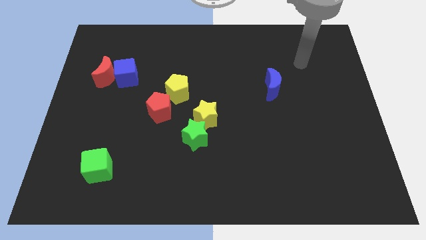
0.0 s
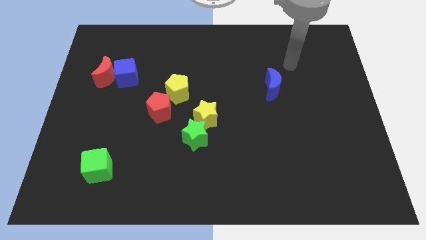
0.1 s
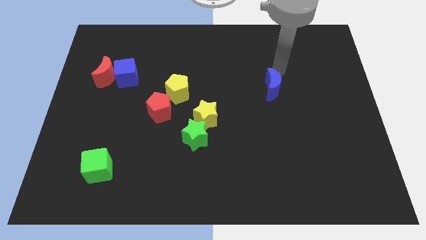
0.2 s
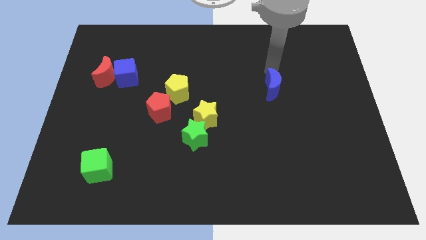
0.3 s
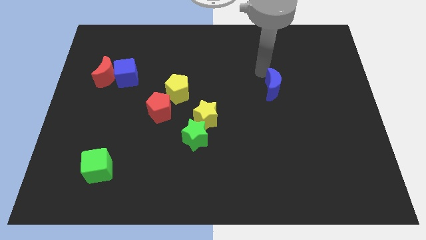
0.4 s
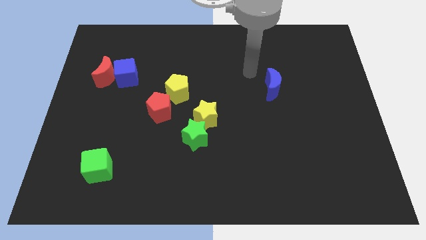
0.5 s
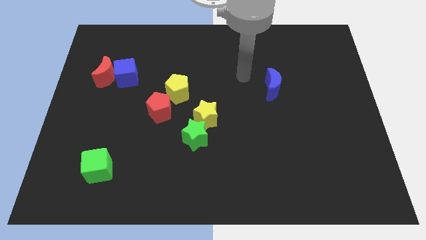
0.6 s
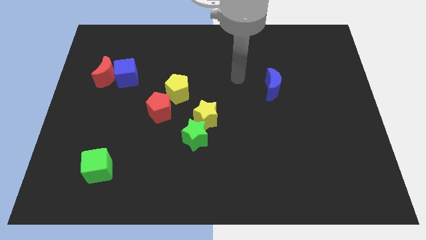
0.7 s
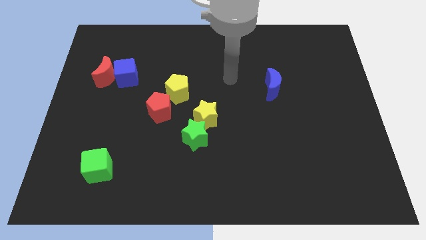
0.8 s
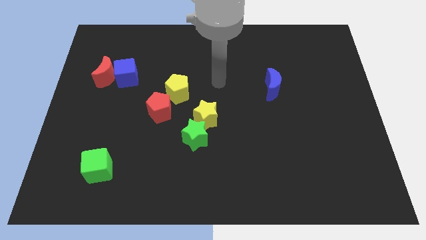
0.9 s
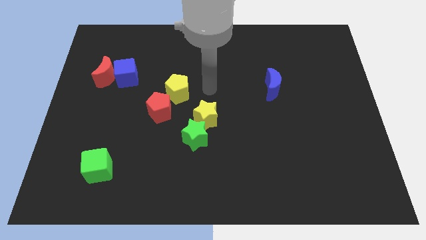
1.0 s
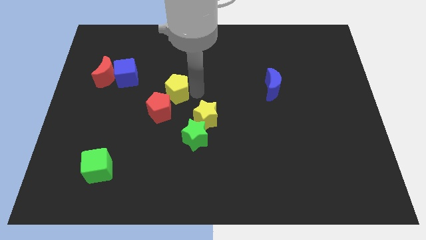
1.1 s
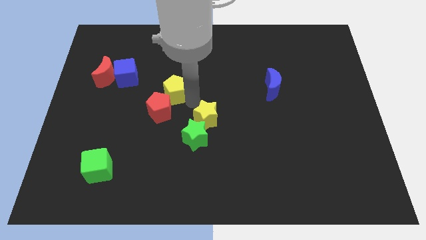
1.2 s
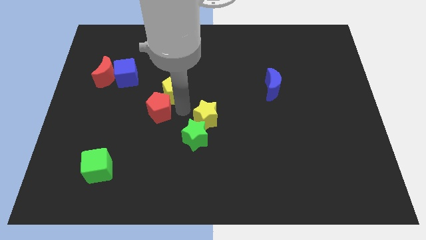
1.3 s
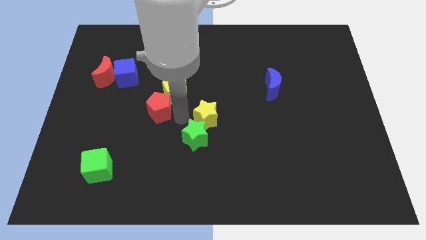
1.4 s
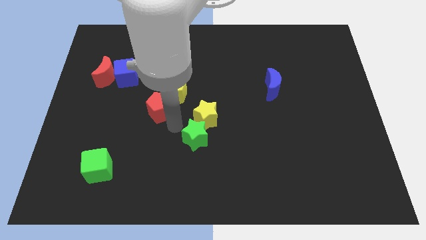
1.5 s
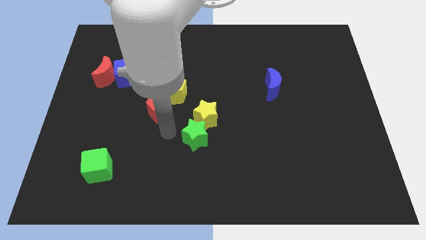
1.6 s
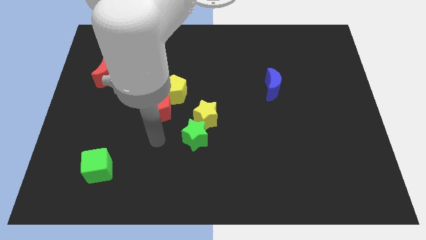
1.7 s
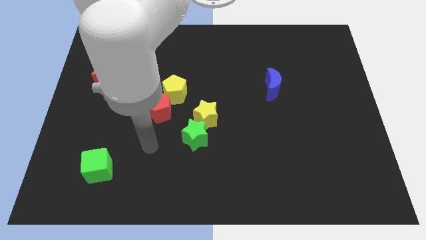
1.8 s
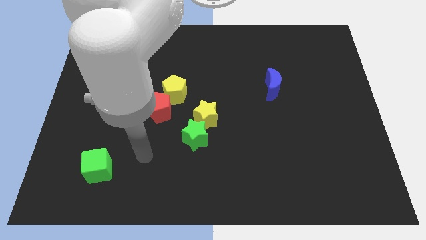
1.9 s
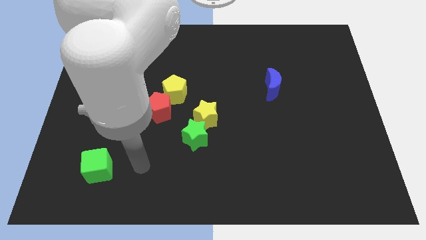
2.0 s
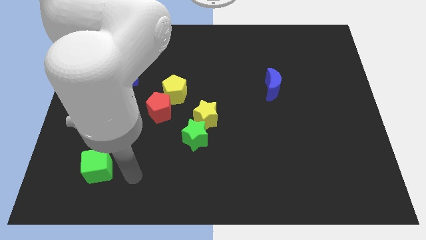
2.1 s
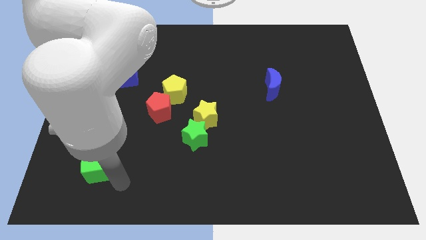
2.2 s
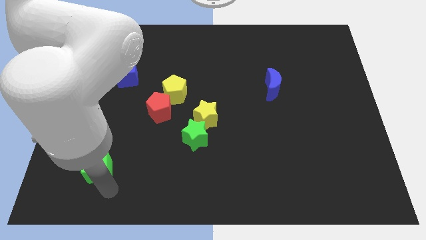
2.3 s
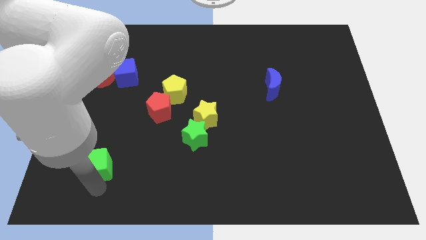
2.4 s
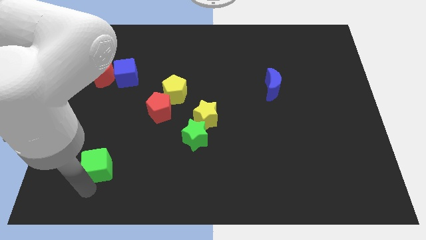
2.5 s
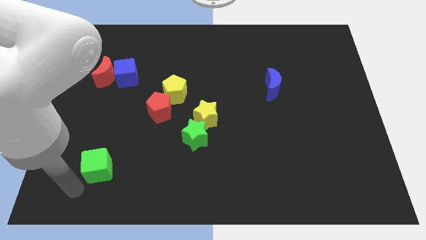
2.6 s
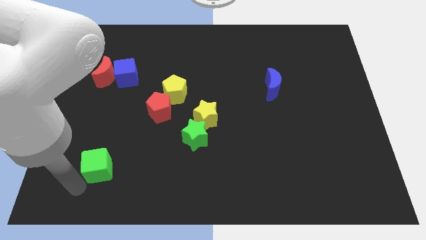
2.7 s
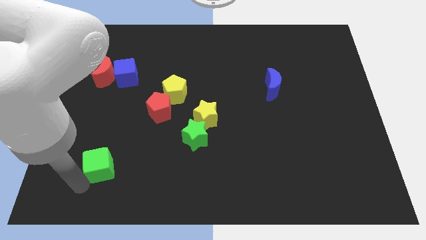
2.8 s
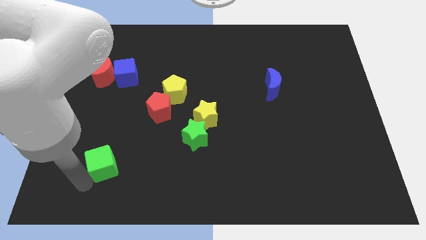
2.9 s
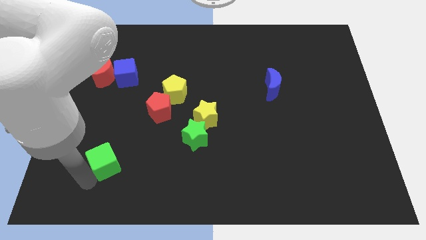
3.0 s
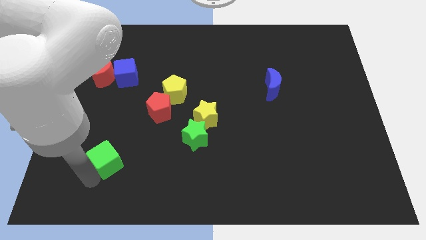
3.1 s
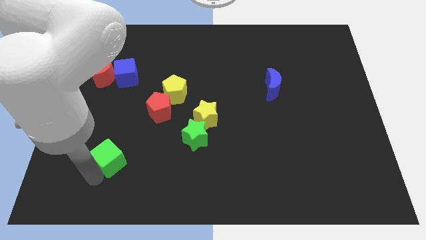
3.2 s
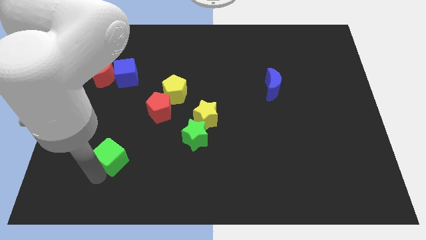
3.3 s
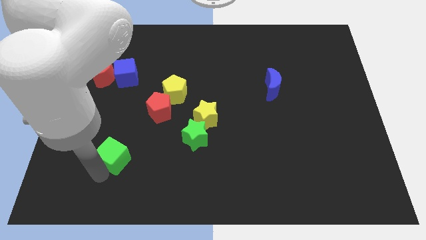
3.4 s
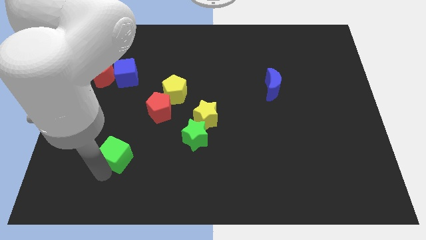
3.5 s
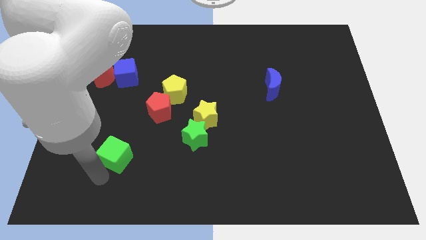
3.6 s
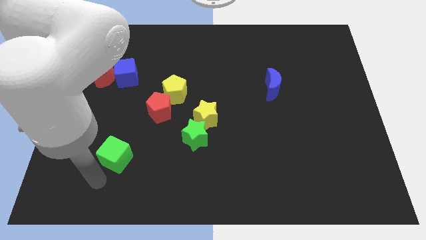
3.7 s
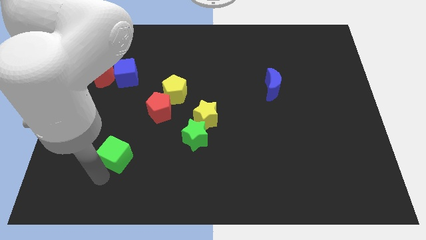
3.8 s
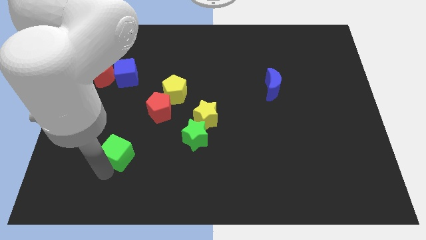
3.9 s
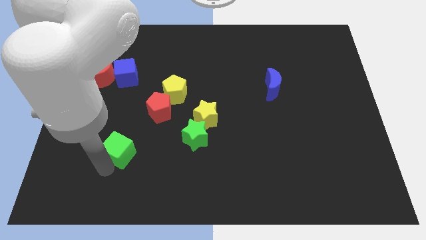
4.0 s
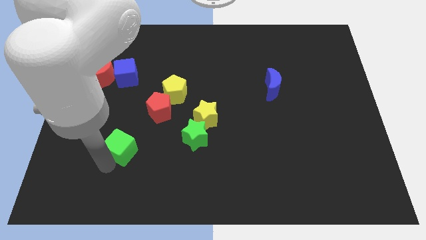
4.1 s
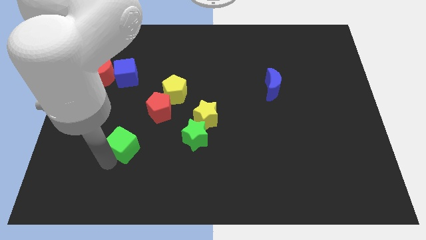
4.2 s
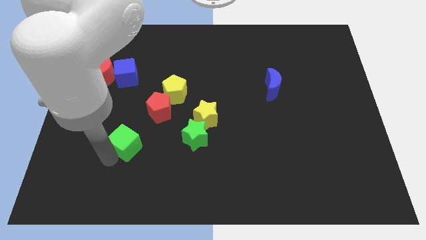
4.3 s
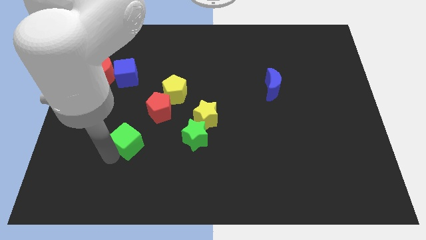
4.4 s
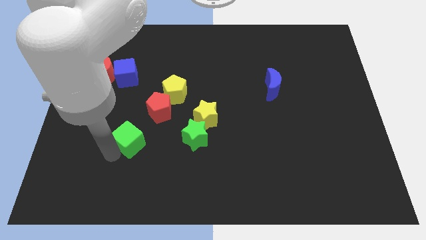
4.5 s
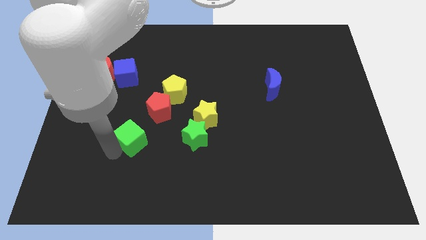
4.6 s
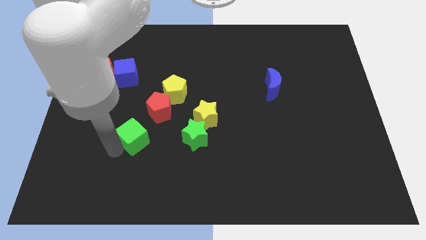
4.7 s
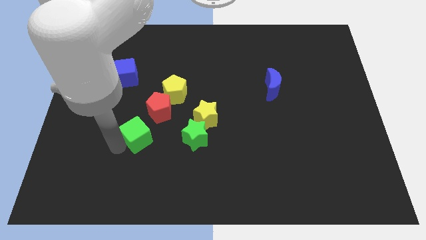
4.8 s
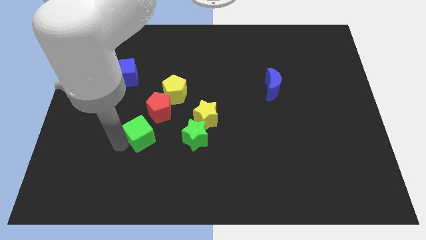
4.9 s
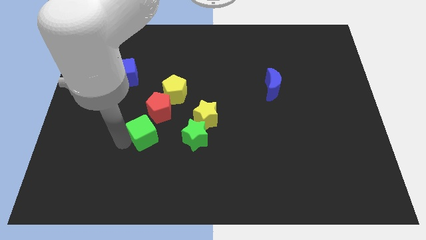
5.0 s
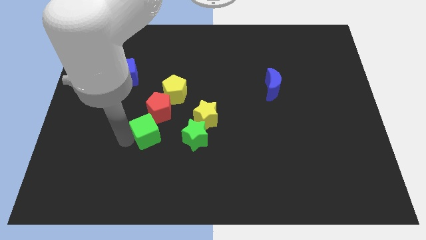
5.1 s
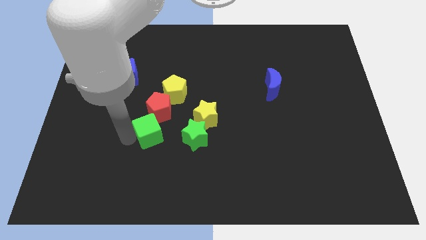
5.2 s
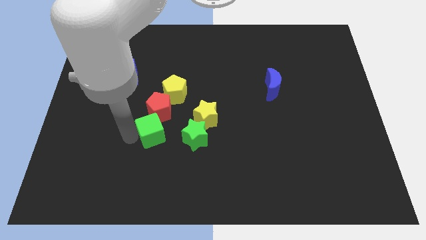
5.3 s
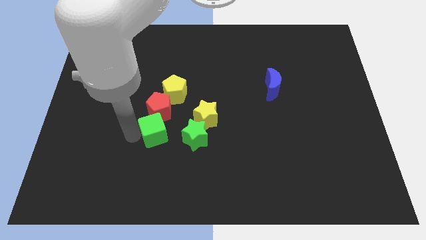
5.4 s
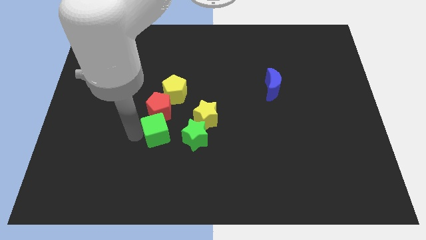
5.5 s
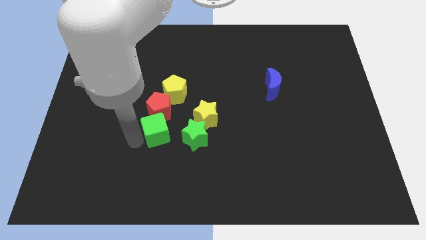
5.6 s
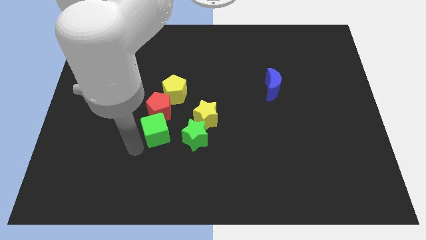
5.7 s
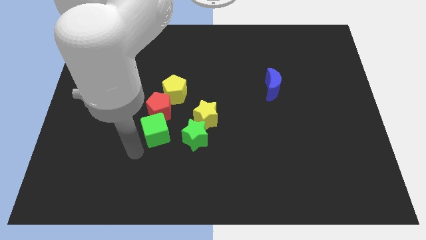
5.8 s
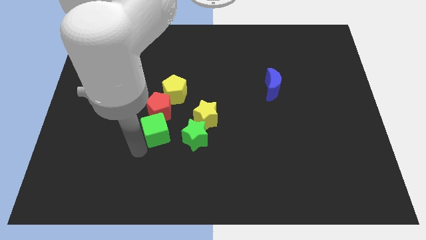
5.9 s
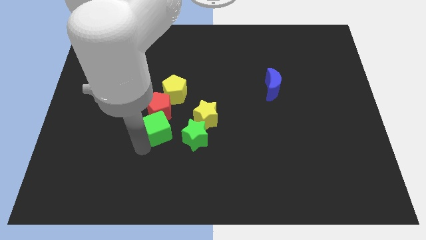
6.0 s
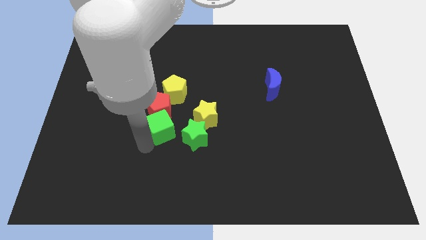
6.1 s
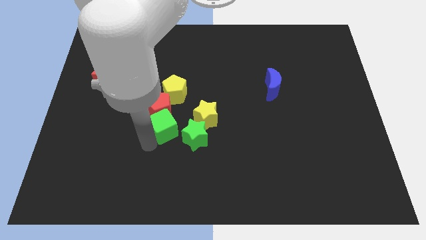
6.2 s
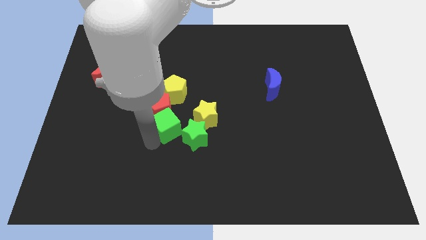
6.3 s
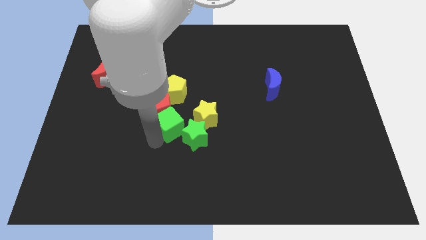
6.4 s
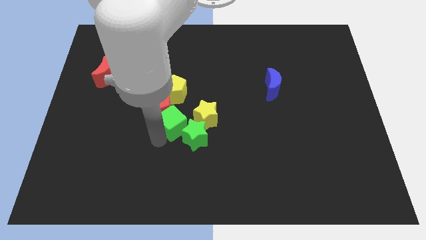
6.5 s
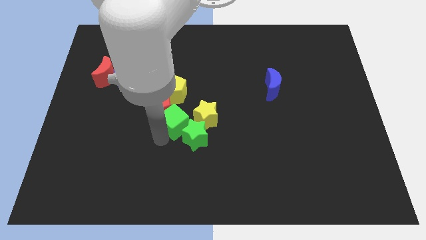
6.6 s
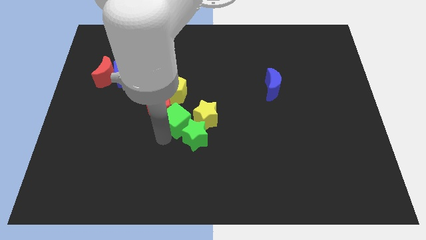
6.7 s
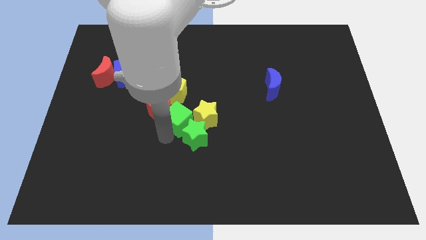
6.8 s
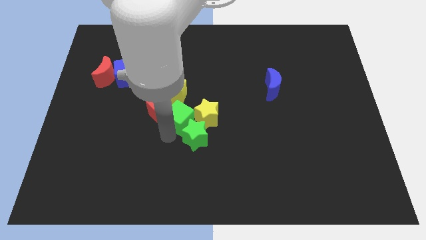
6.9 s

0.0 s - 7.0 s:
move the green cube upwards and right diagonally

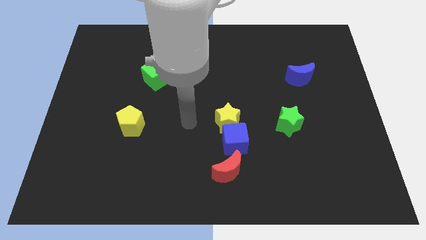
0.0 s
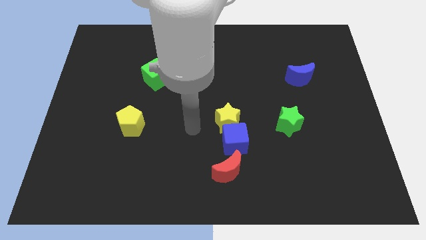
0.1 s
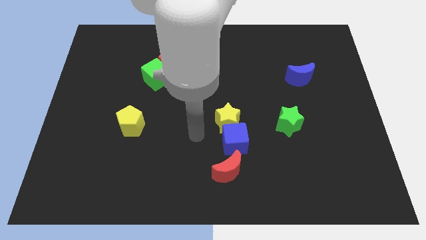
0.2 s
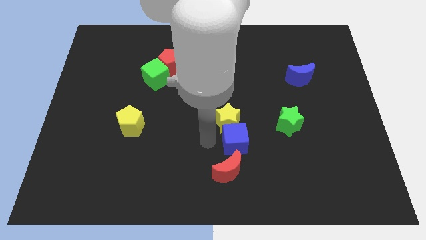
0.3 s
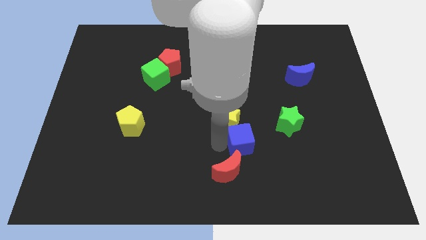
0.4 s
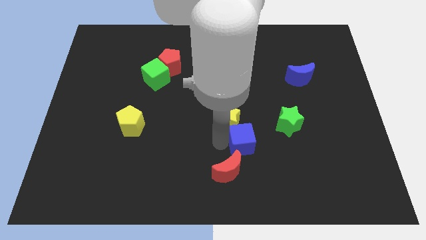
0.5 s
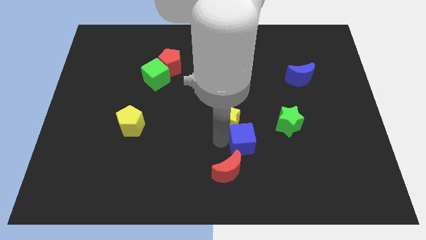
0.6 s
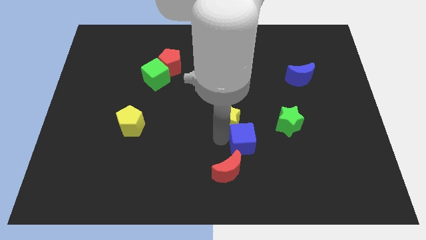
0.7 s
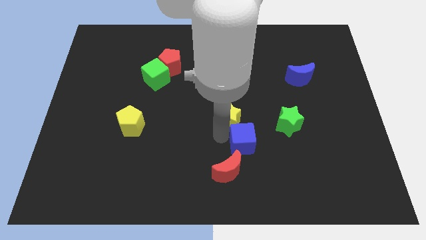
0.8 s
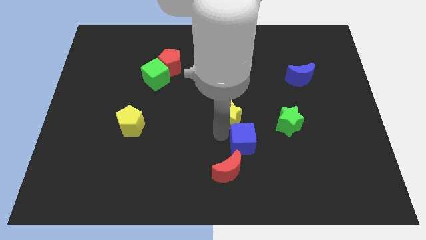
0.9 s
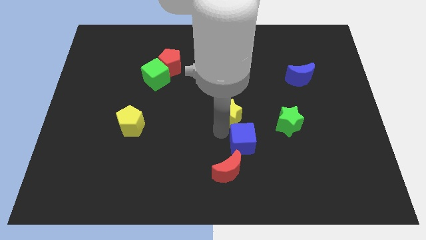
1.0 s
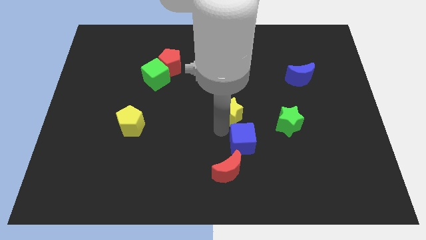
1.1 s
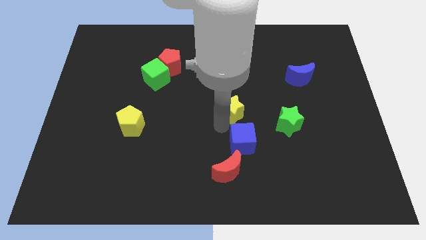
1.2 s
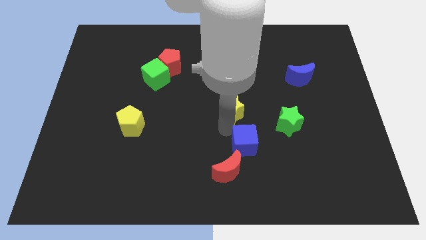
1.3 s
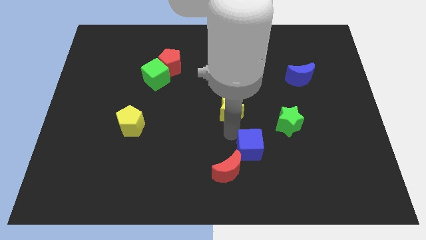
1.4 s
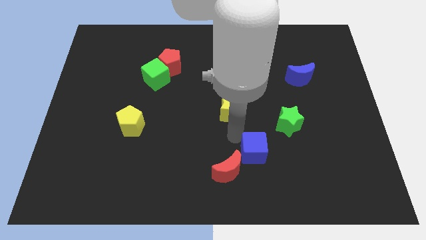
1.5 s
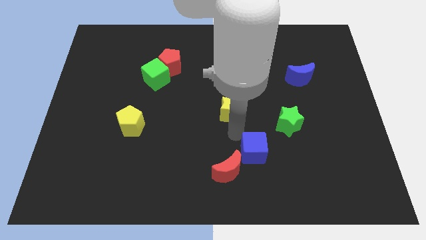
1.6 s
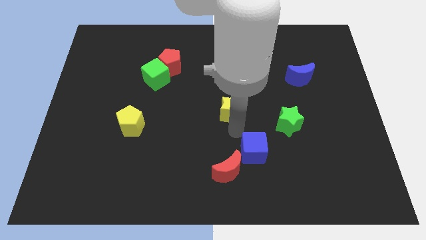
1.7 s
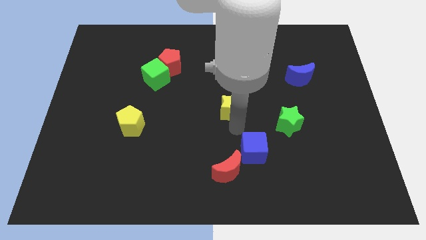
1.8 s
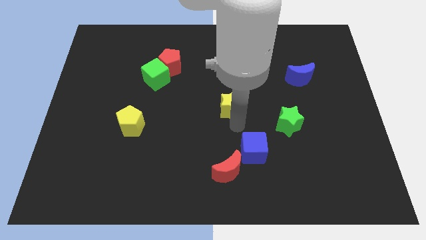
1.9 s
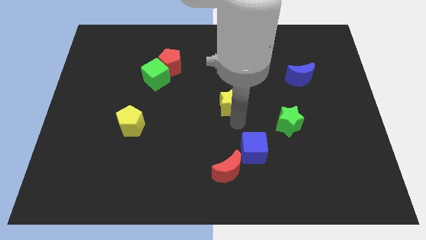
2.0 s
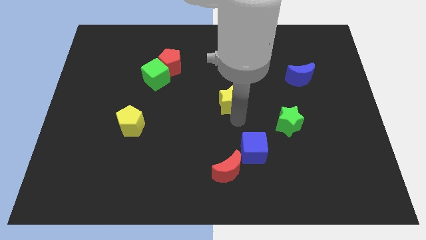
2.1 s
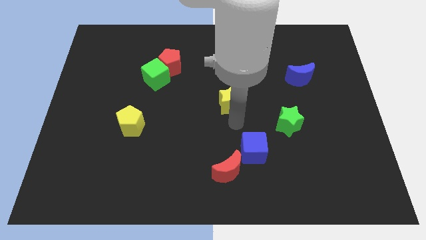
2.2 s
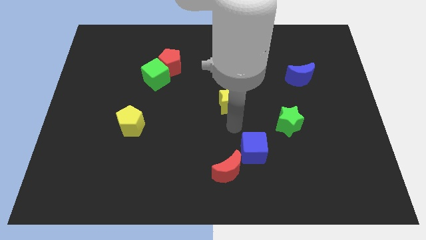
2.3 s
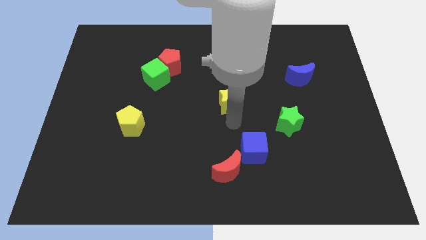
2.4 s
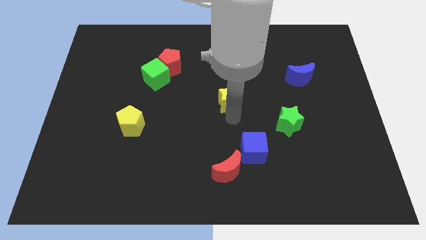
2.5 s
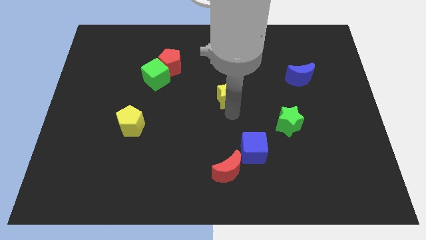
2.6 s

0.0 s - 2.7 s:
push the yellow star up slightly
